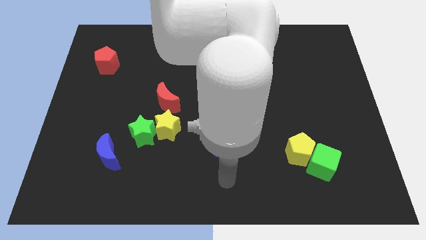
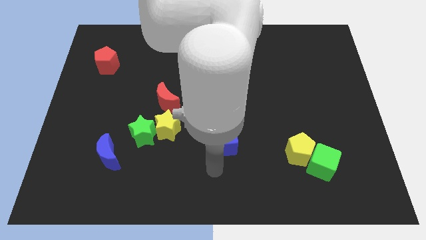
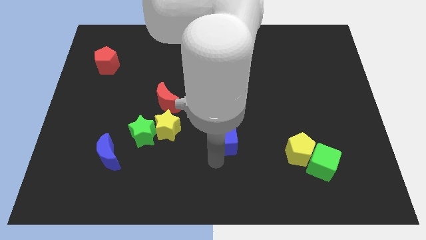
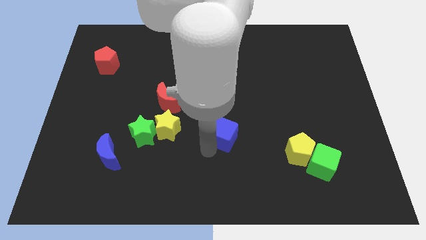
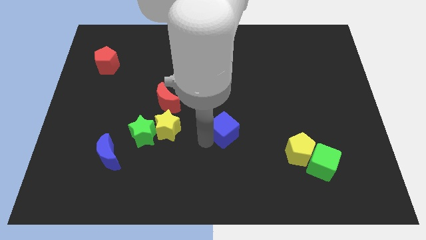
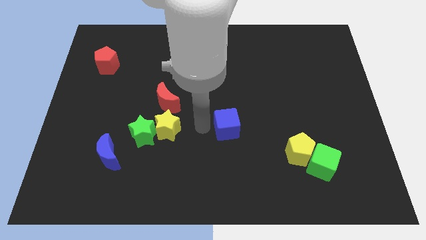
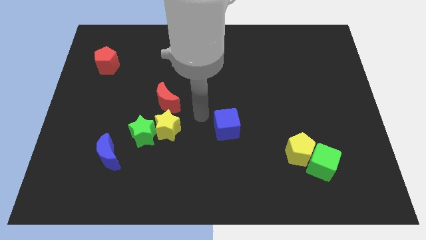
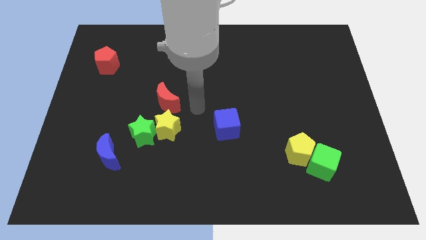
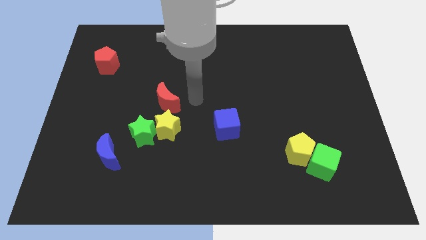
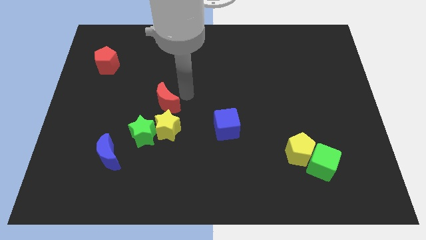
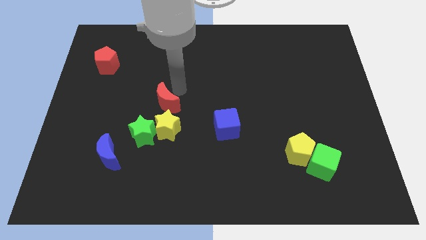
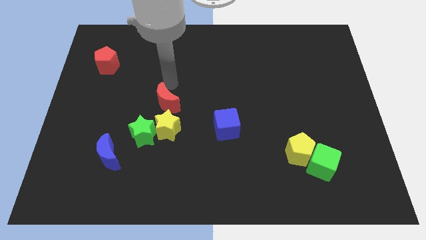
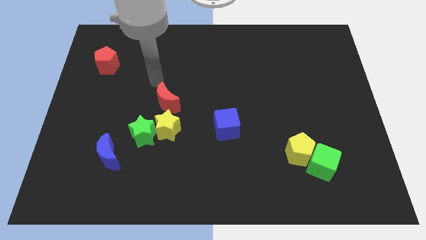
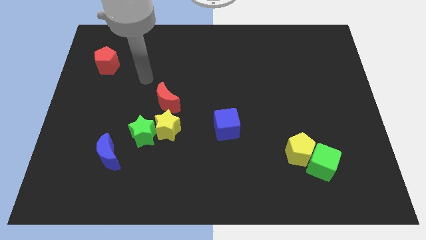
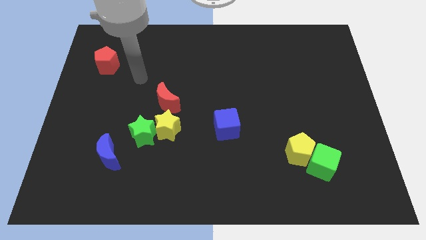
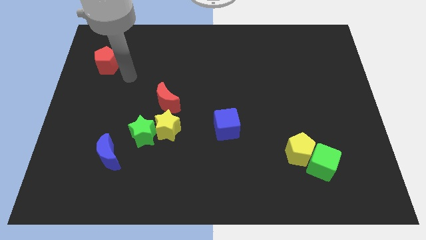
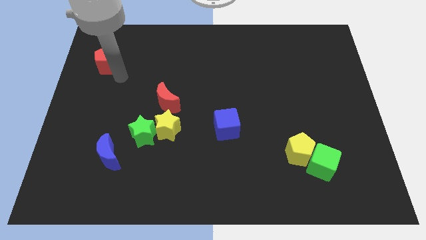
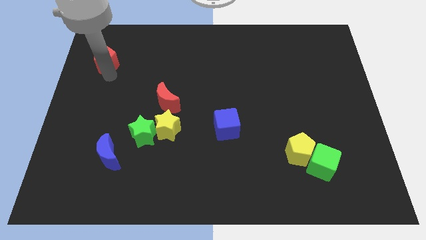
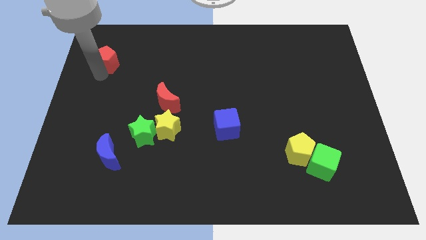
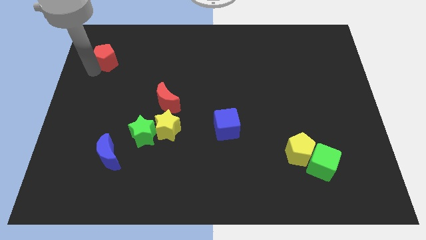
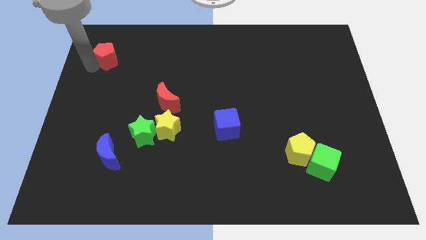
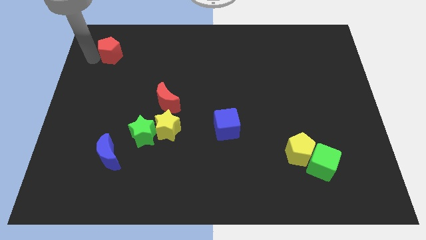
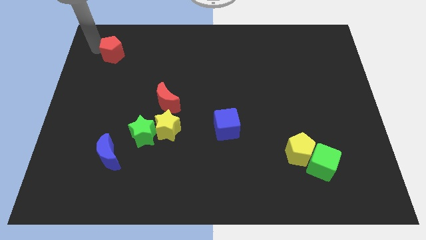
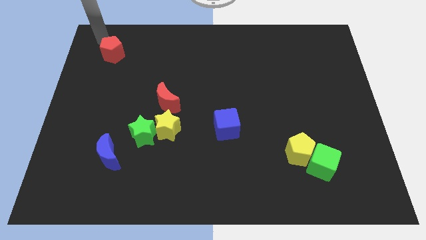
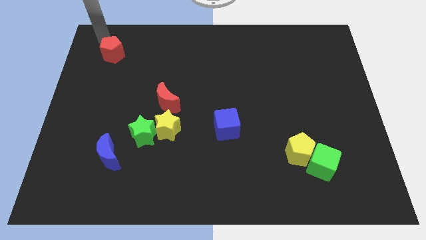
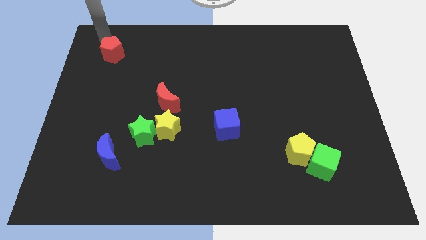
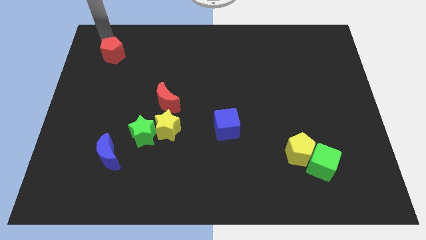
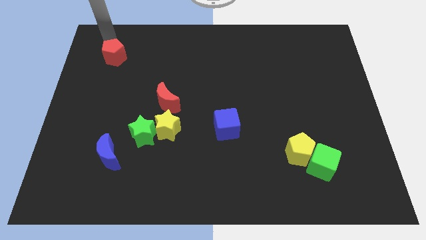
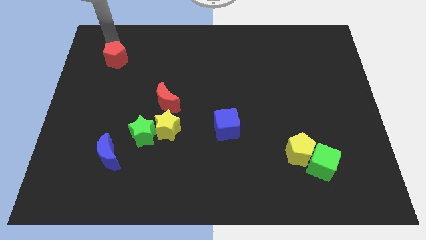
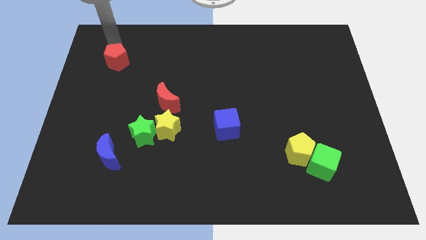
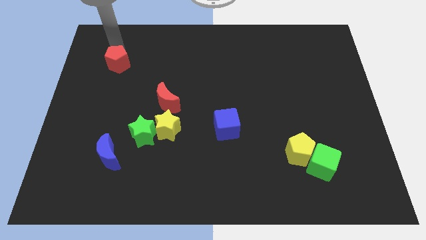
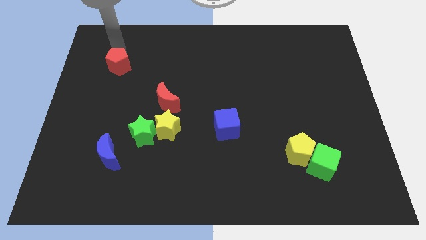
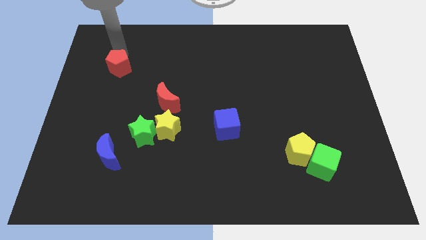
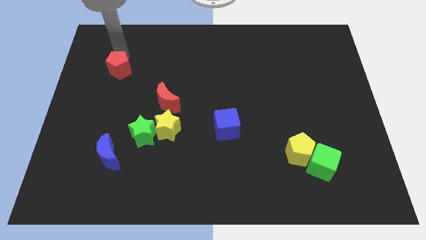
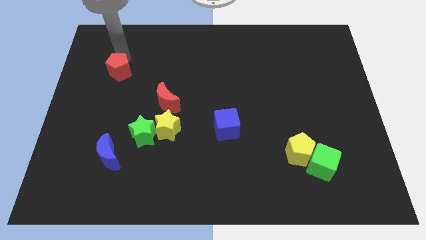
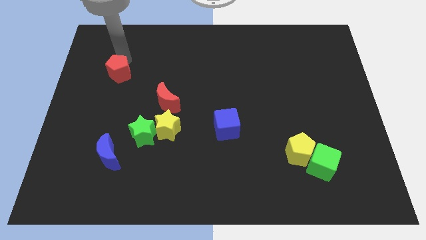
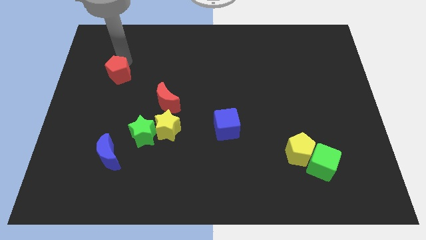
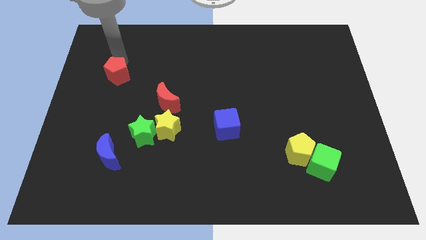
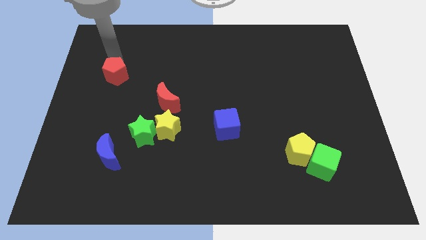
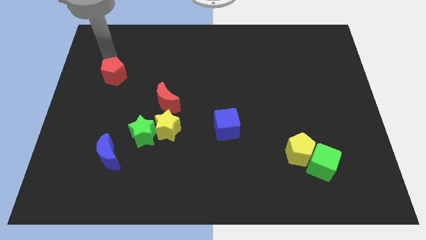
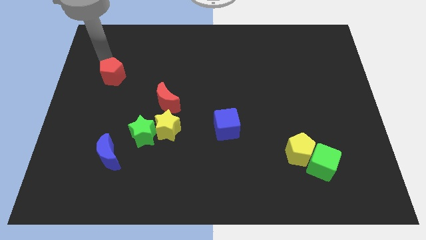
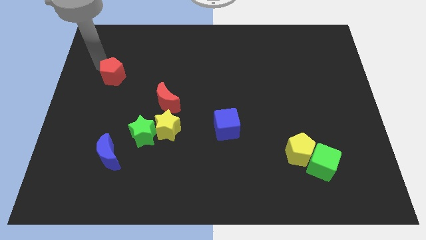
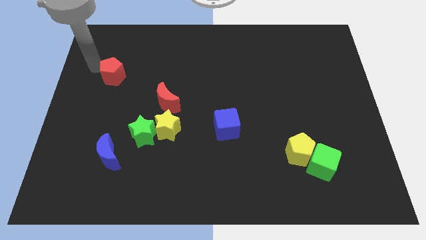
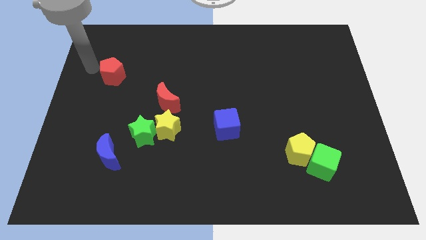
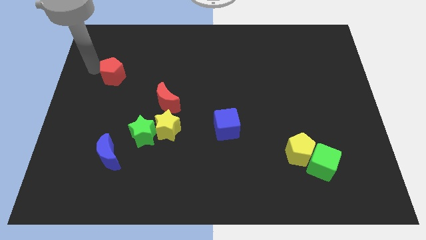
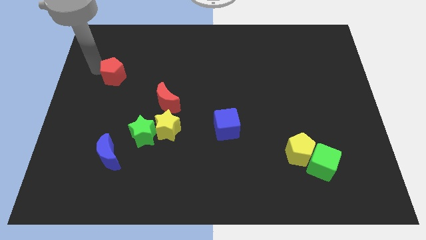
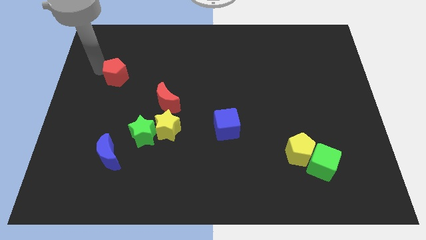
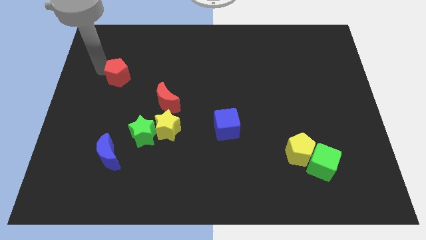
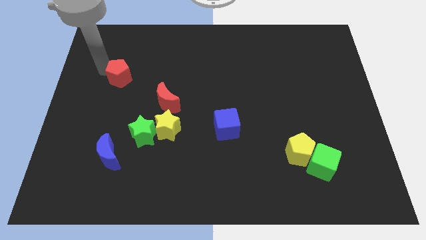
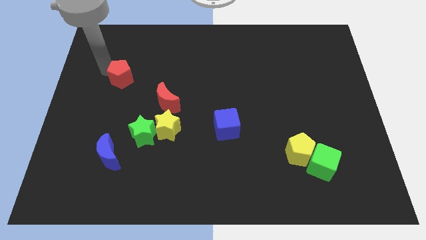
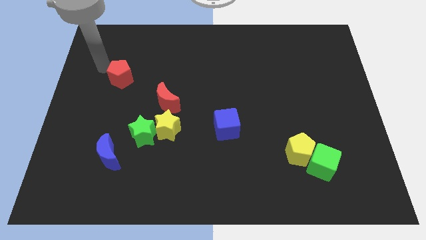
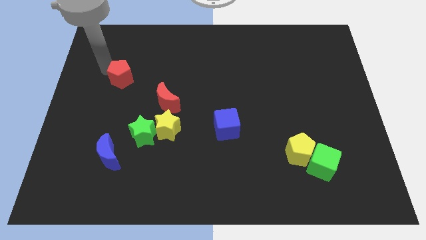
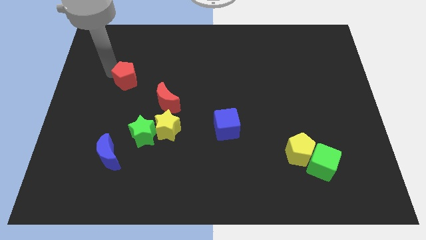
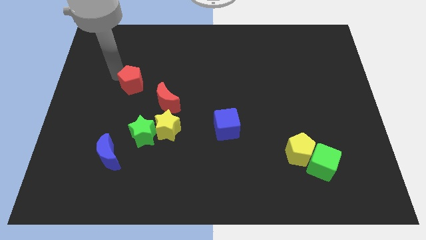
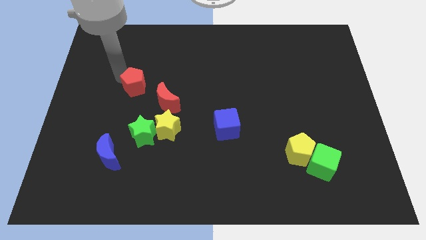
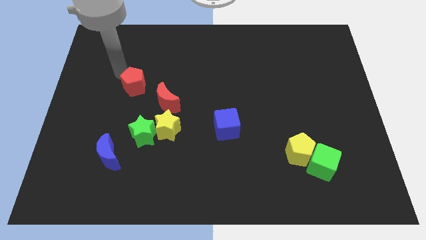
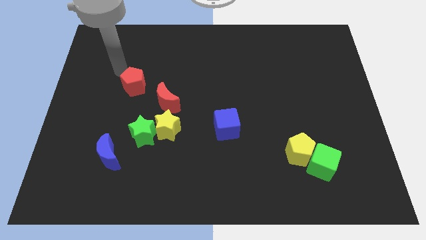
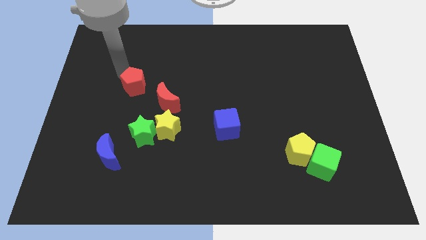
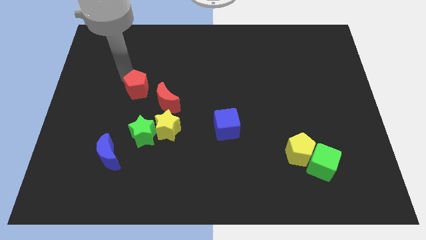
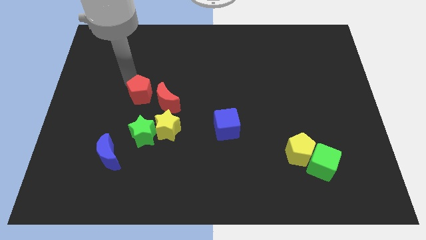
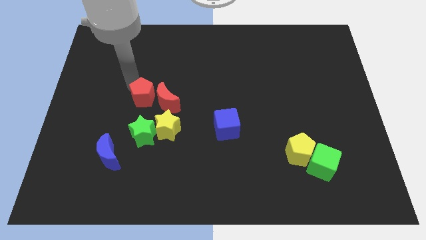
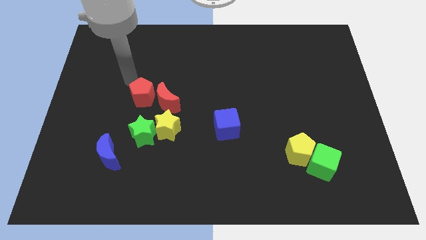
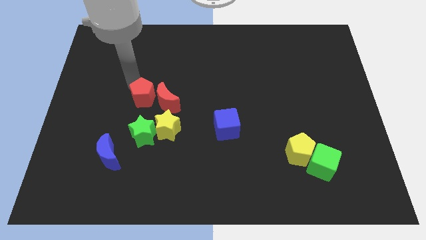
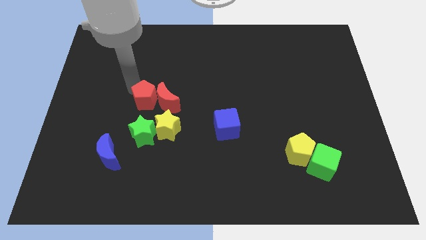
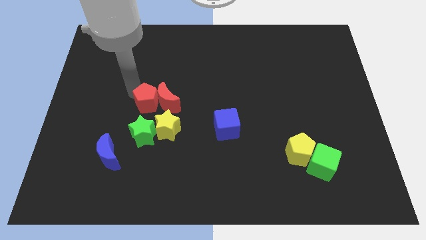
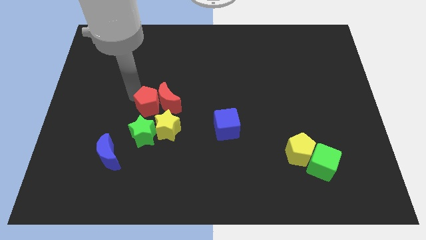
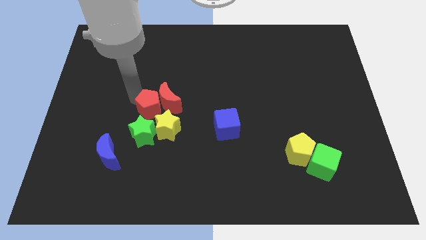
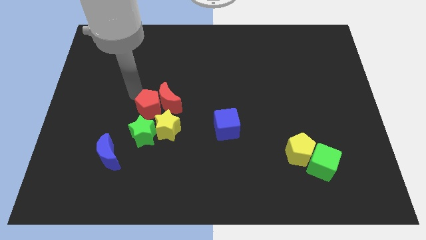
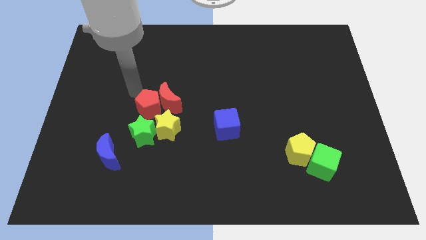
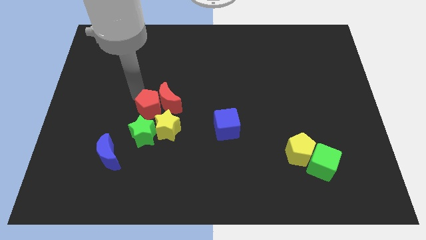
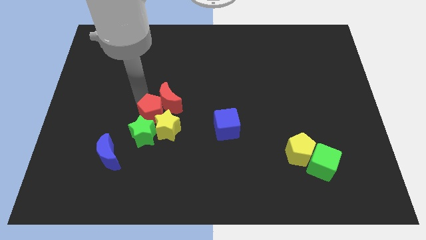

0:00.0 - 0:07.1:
move the red pentagon close to the yellow star

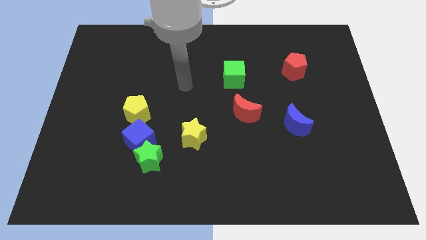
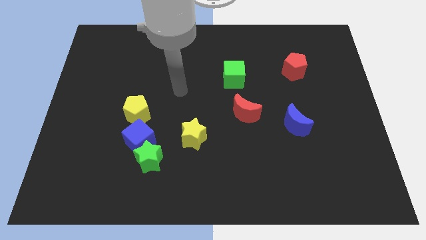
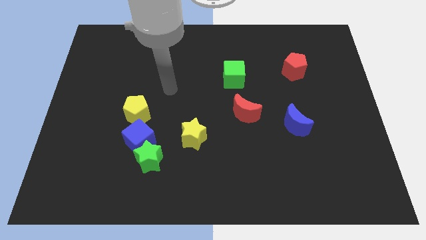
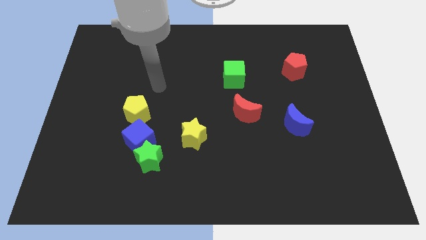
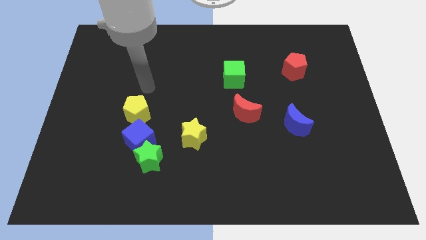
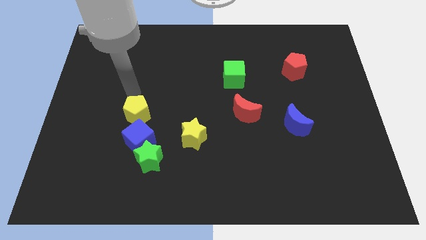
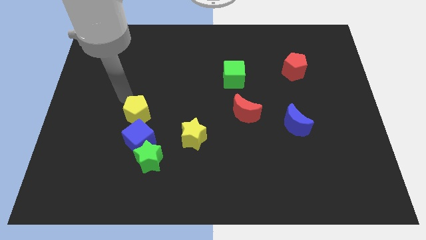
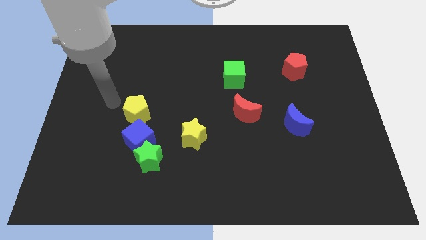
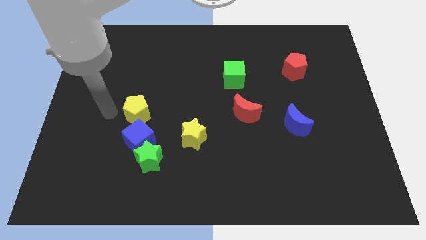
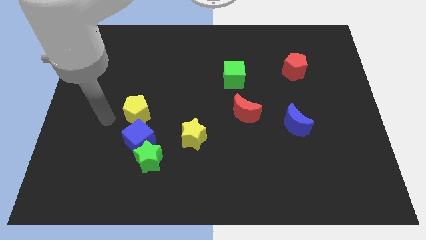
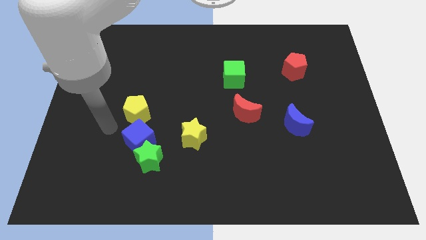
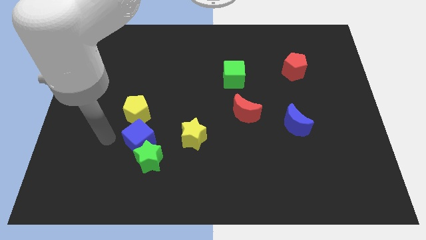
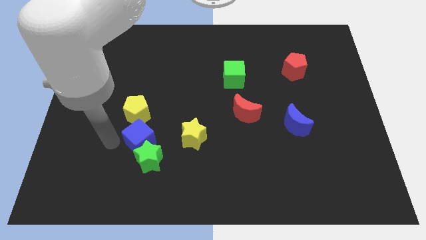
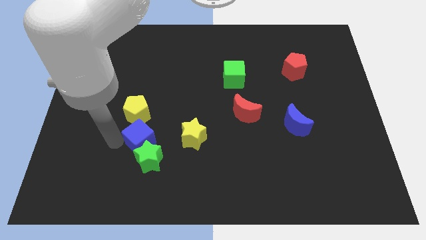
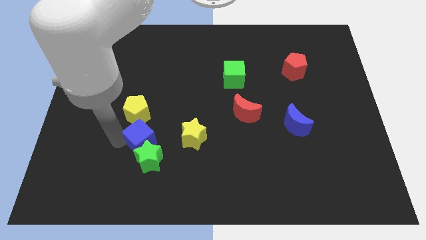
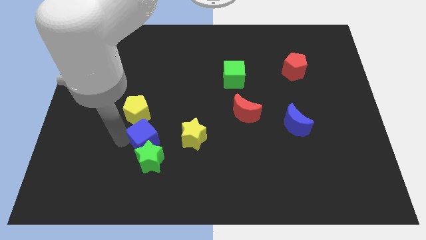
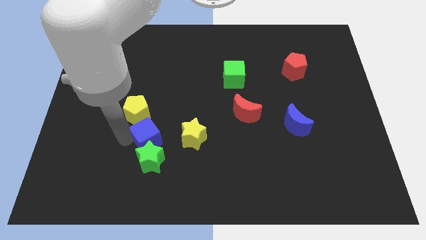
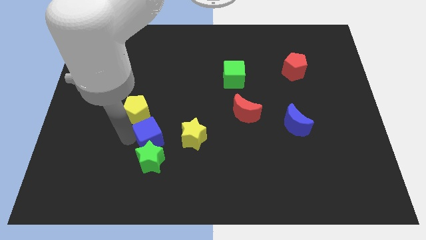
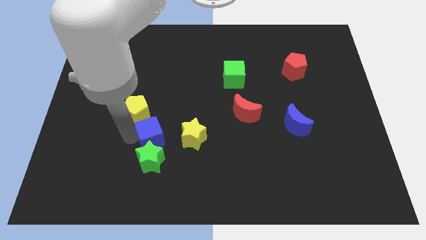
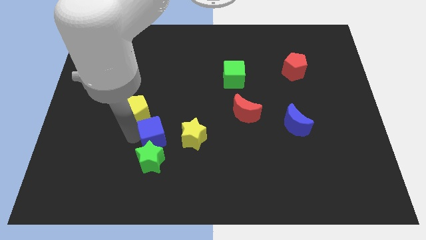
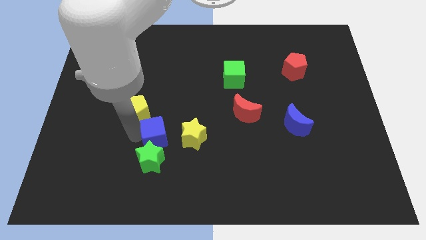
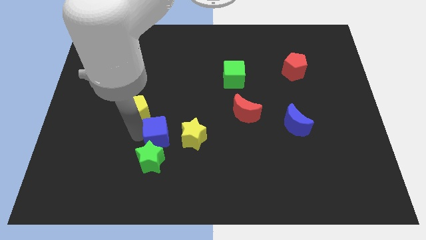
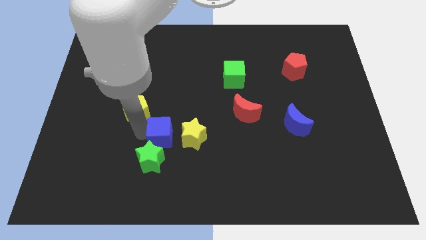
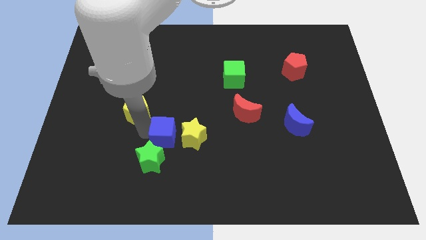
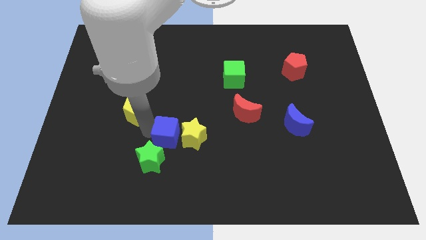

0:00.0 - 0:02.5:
slide the blue cube next to the yellow star
